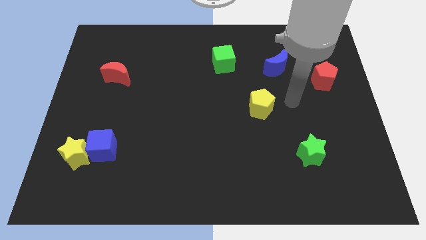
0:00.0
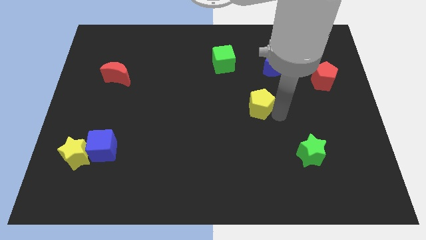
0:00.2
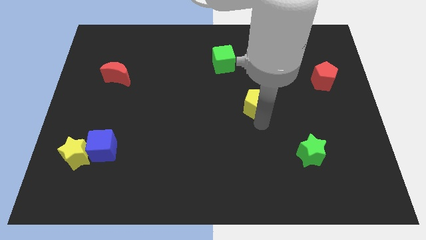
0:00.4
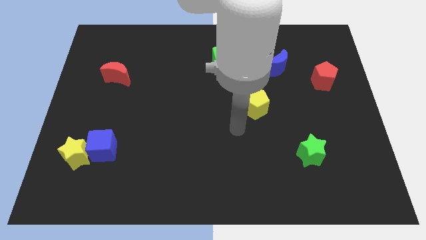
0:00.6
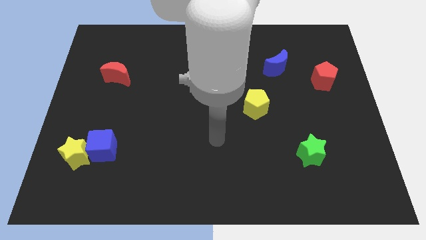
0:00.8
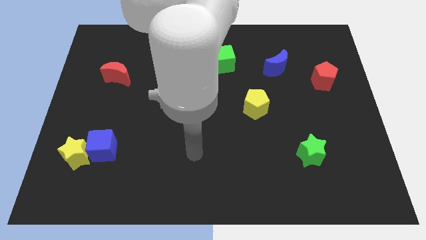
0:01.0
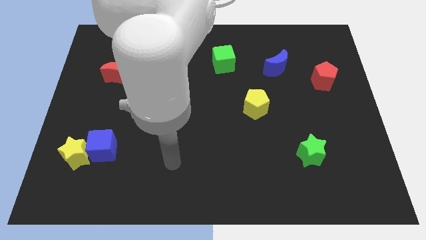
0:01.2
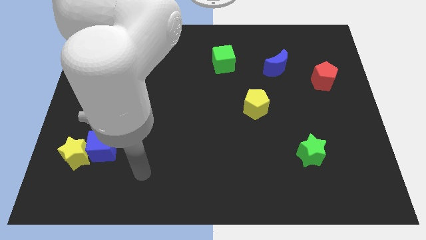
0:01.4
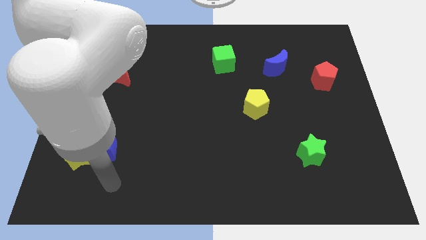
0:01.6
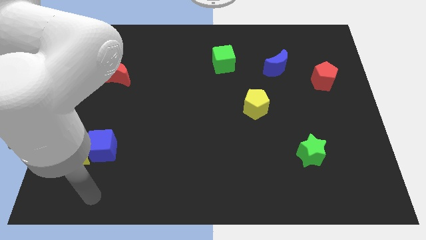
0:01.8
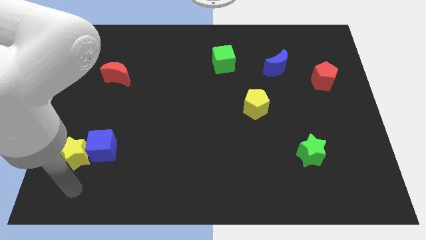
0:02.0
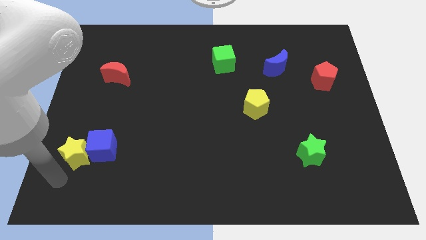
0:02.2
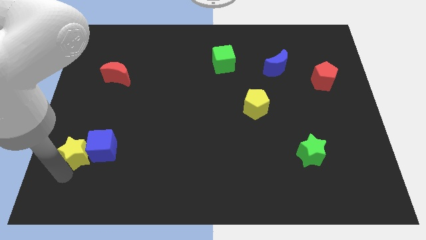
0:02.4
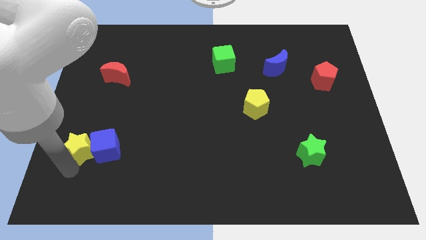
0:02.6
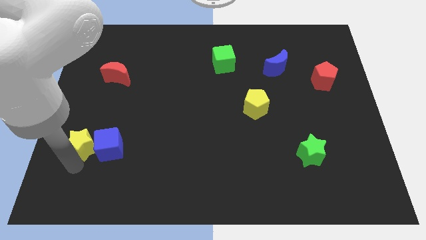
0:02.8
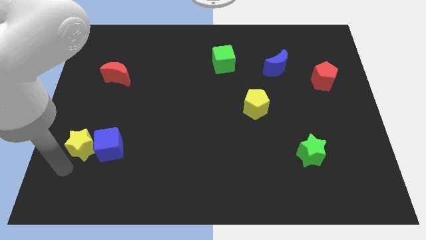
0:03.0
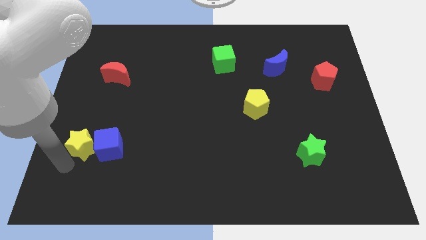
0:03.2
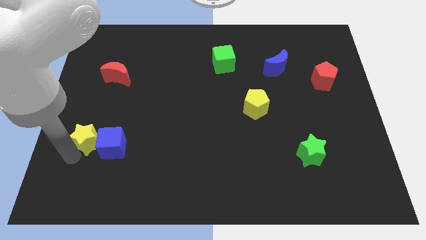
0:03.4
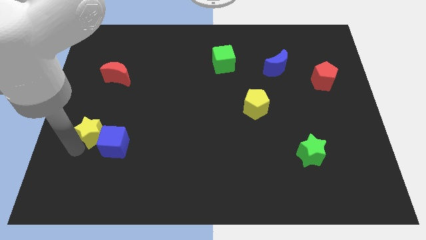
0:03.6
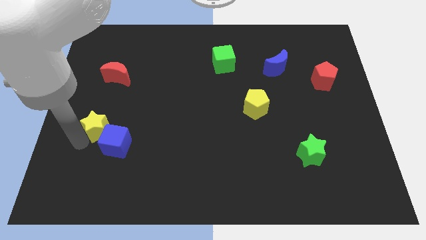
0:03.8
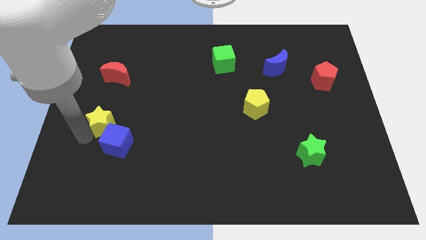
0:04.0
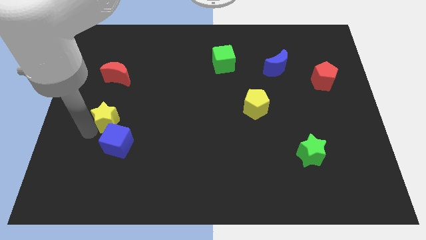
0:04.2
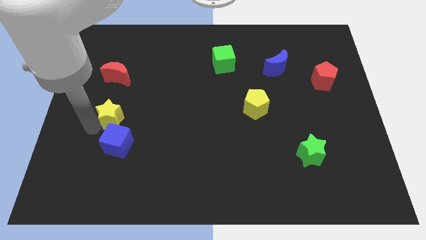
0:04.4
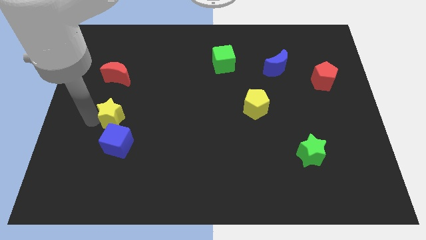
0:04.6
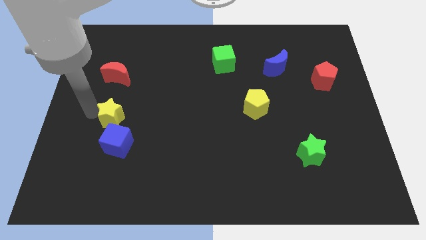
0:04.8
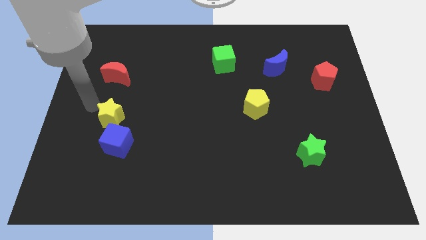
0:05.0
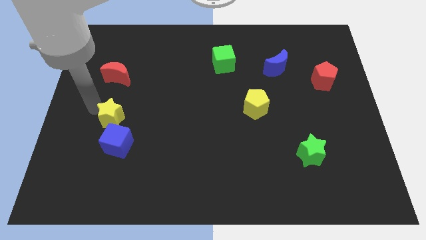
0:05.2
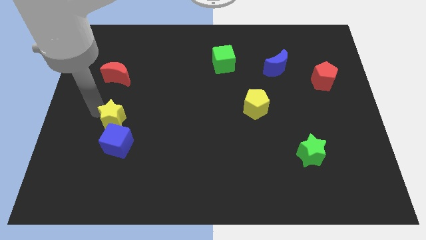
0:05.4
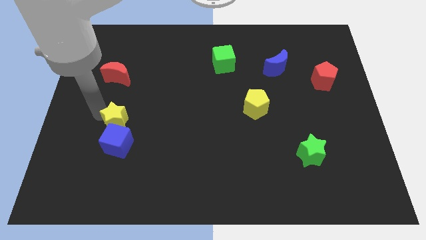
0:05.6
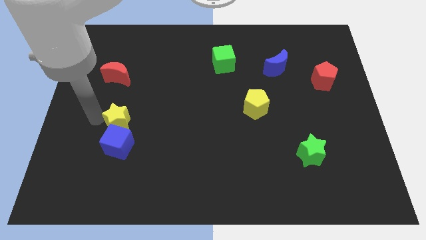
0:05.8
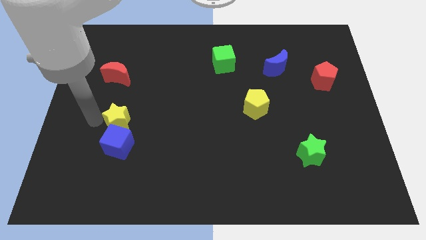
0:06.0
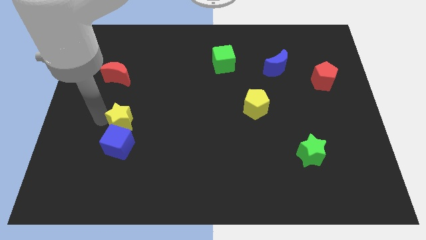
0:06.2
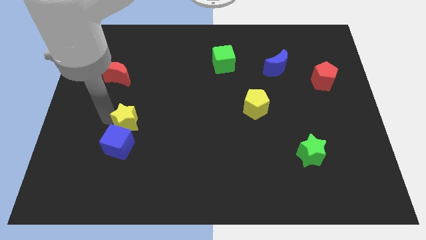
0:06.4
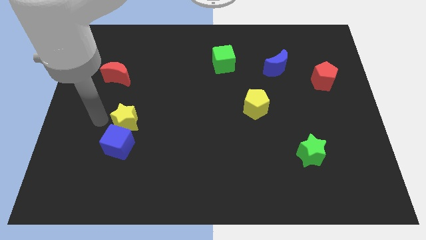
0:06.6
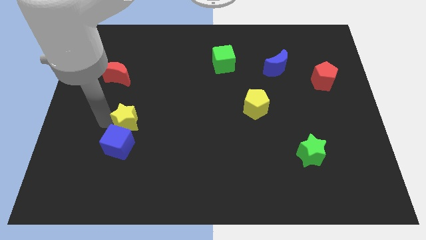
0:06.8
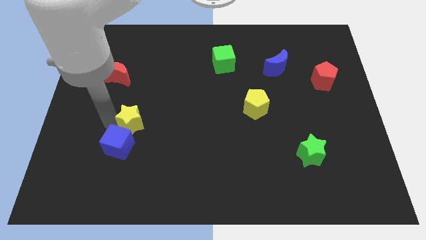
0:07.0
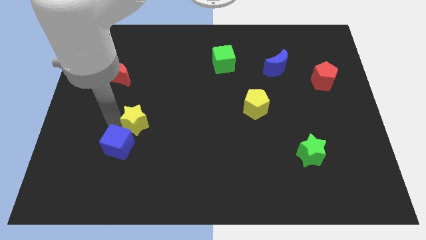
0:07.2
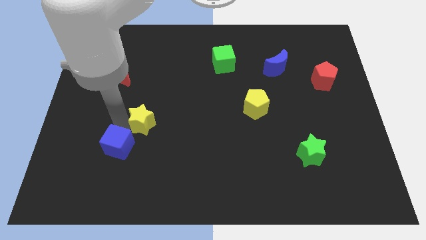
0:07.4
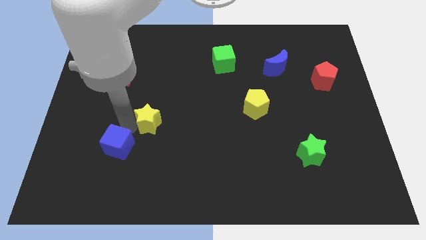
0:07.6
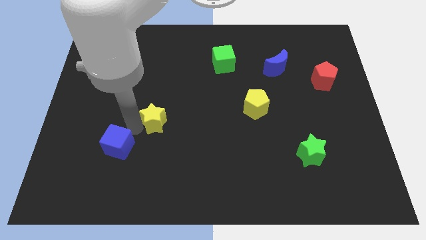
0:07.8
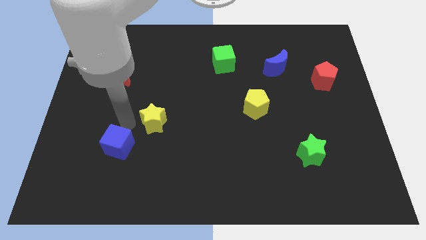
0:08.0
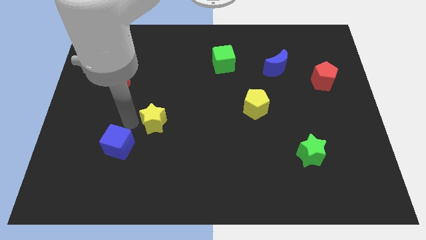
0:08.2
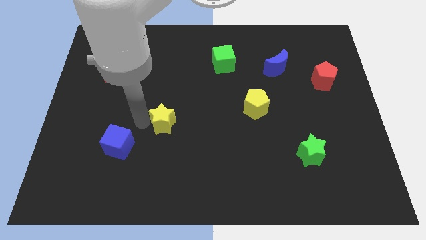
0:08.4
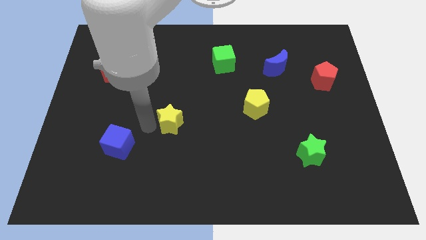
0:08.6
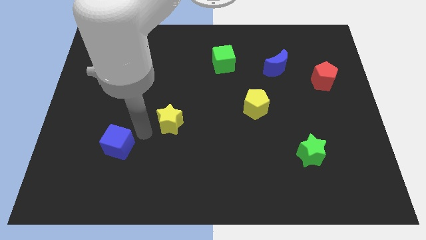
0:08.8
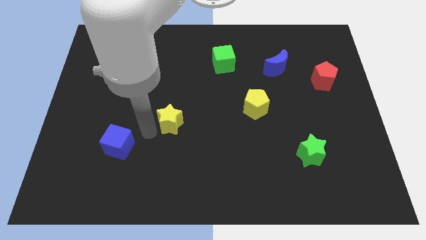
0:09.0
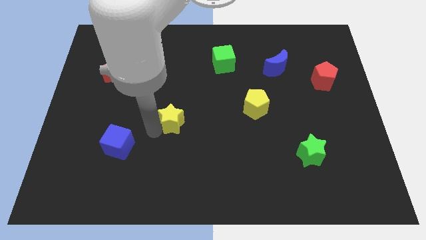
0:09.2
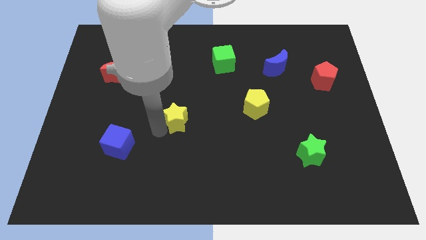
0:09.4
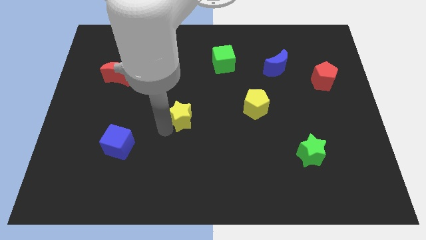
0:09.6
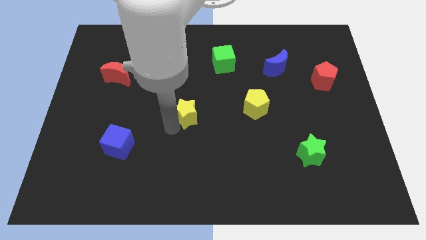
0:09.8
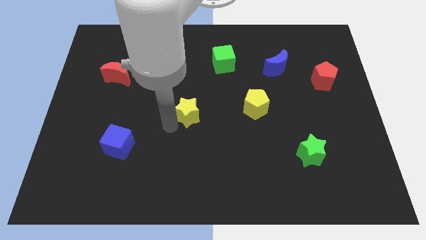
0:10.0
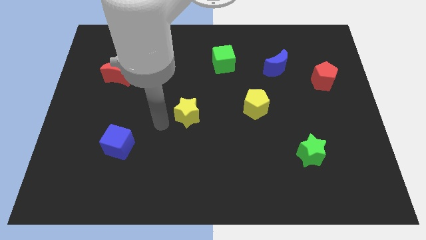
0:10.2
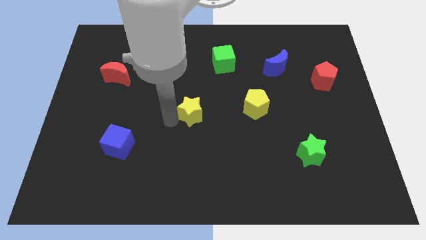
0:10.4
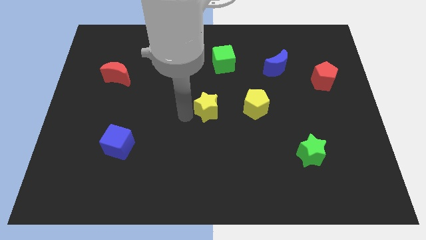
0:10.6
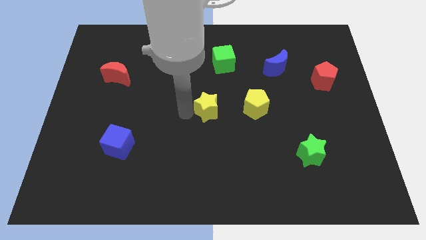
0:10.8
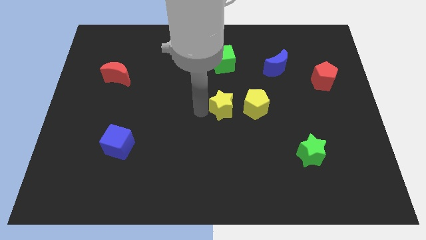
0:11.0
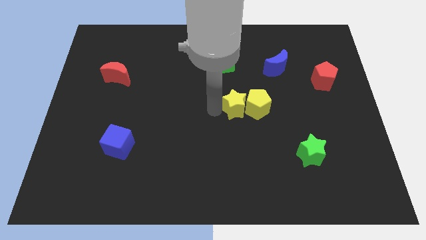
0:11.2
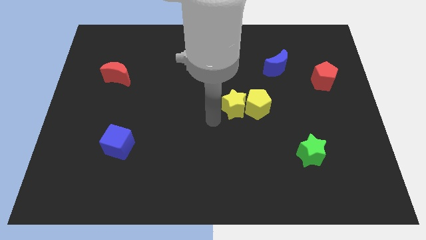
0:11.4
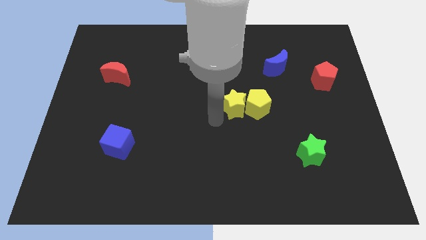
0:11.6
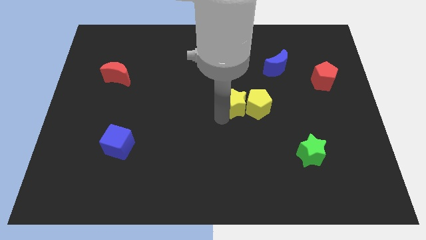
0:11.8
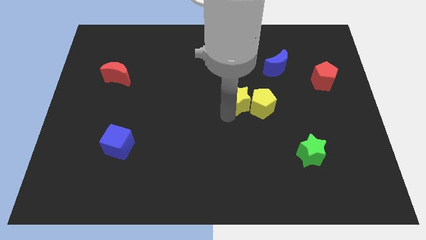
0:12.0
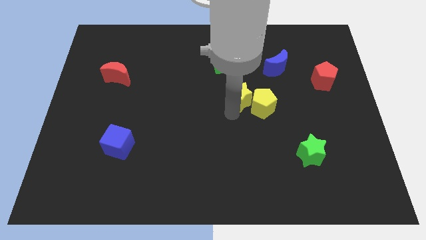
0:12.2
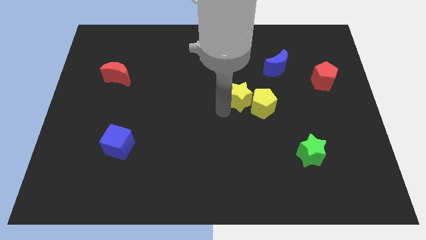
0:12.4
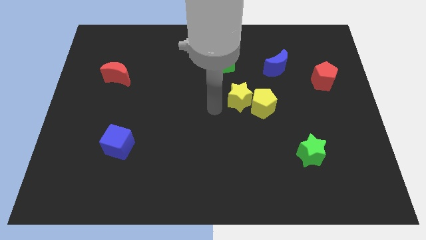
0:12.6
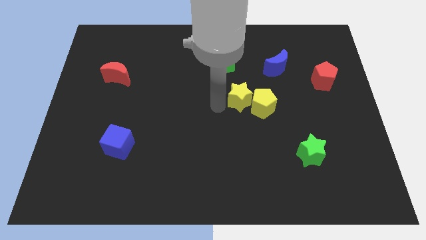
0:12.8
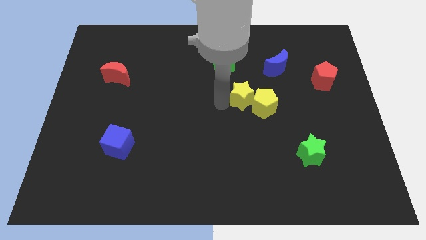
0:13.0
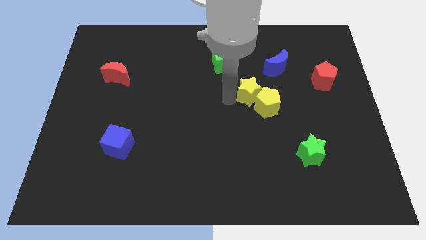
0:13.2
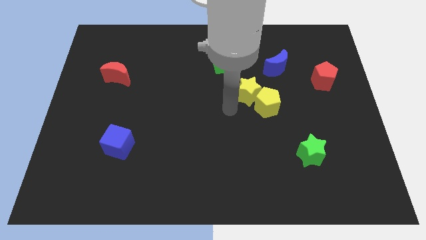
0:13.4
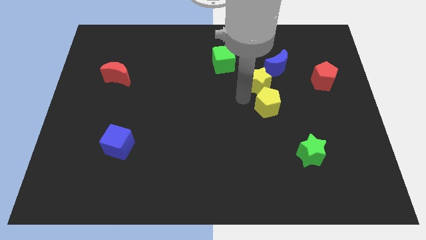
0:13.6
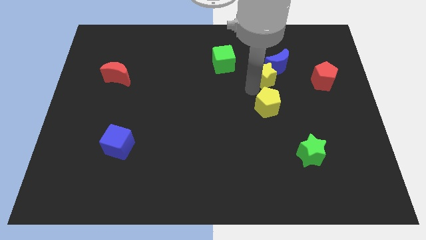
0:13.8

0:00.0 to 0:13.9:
push the yellow star next to the blue moon
